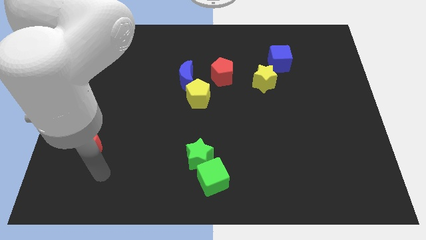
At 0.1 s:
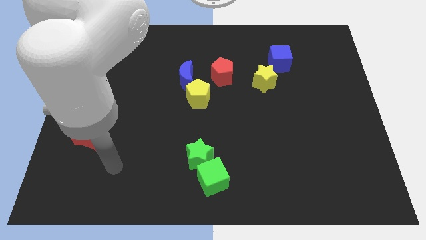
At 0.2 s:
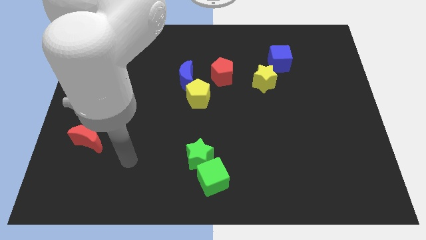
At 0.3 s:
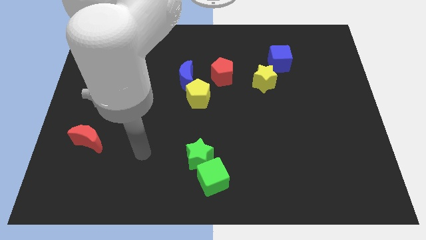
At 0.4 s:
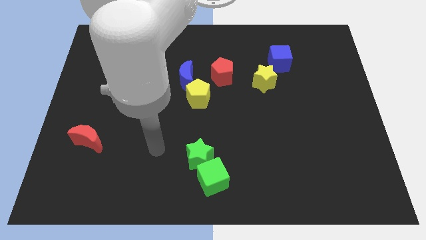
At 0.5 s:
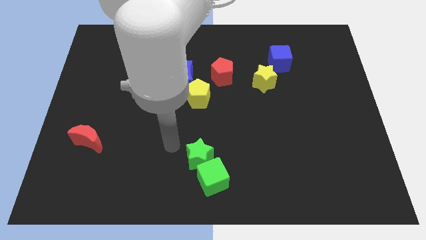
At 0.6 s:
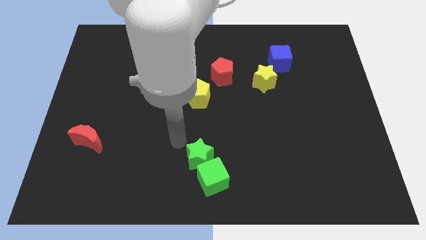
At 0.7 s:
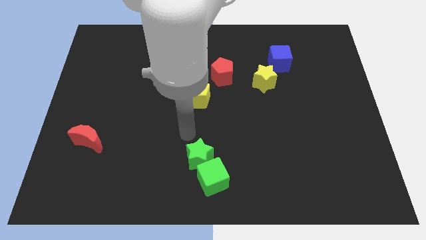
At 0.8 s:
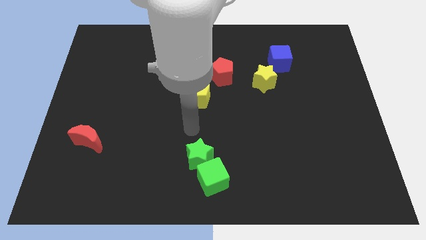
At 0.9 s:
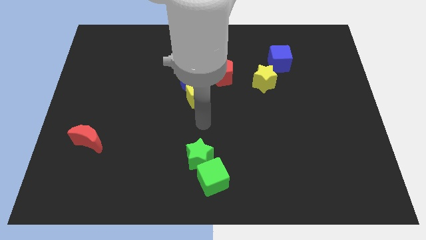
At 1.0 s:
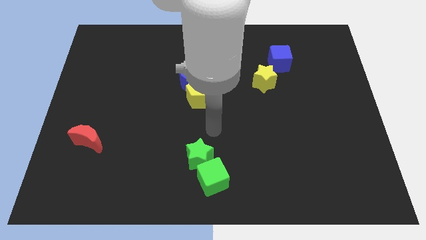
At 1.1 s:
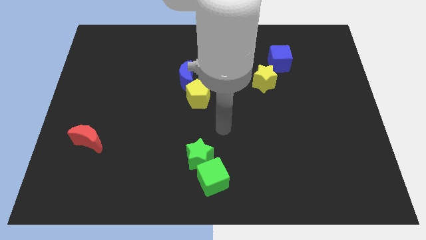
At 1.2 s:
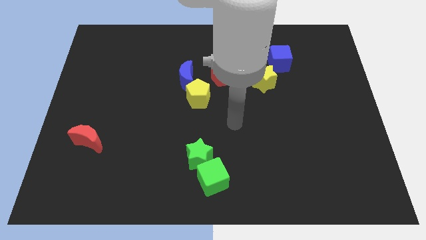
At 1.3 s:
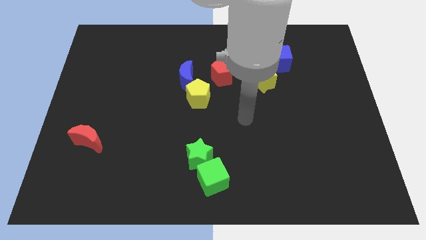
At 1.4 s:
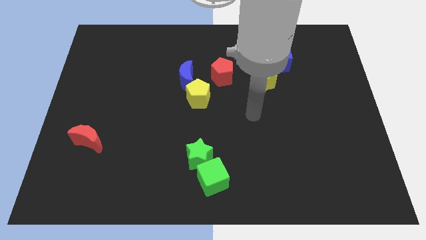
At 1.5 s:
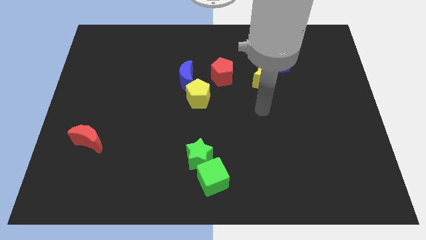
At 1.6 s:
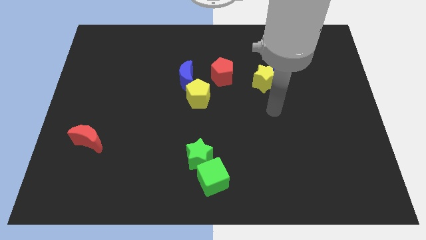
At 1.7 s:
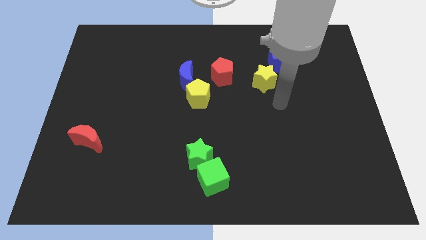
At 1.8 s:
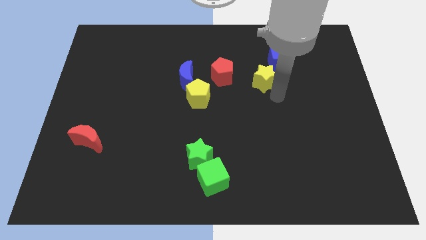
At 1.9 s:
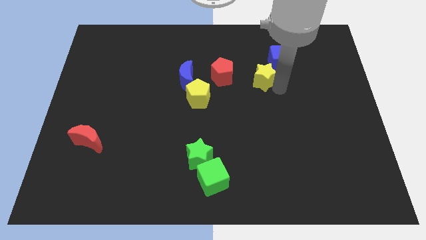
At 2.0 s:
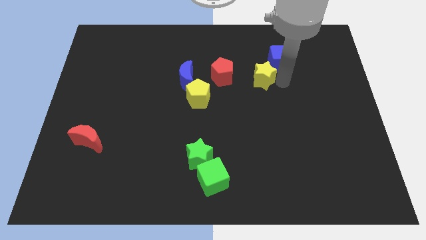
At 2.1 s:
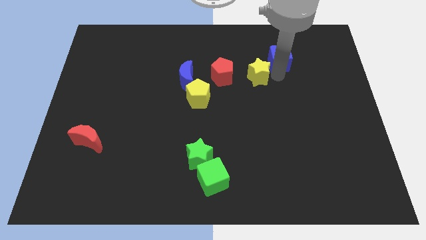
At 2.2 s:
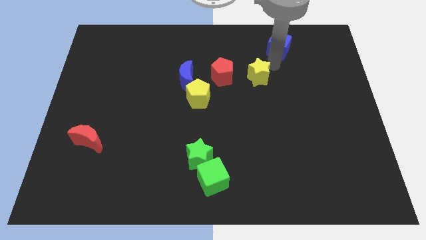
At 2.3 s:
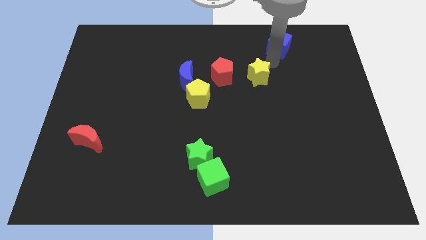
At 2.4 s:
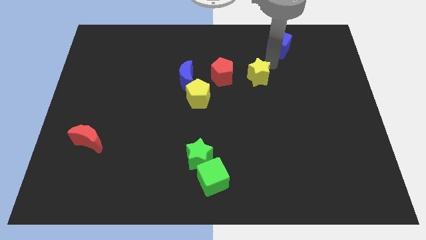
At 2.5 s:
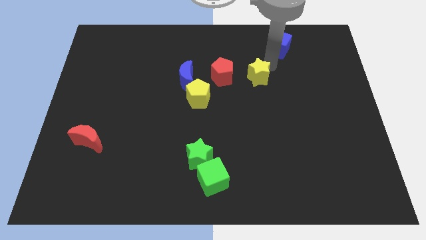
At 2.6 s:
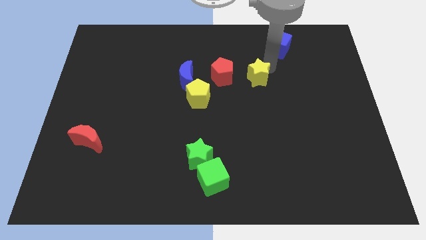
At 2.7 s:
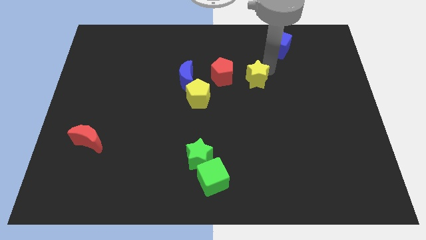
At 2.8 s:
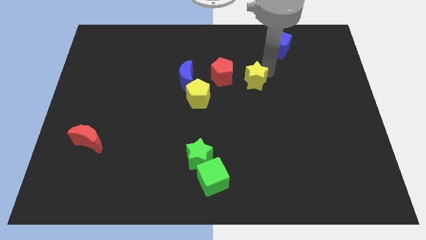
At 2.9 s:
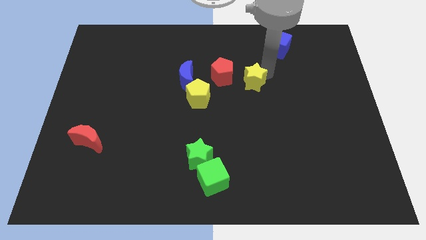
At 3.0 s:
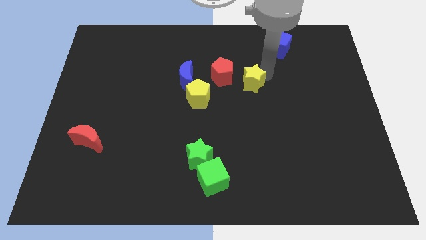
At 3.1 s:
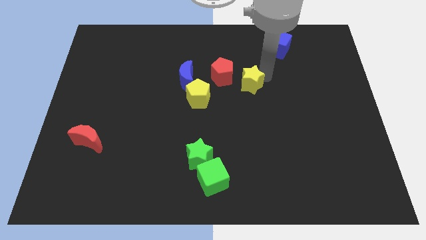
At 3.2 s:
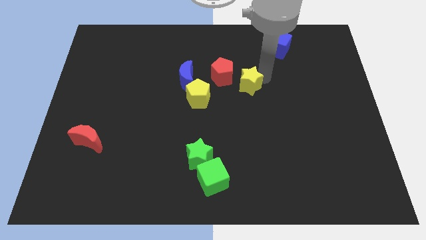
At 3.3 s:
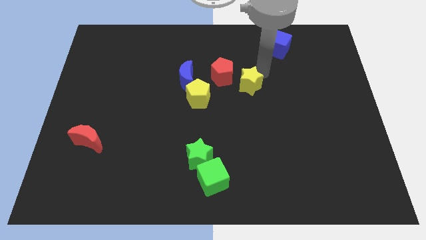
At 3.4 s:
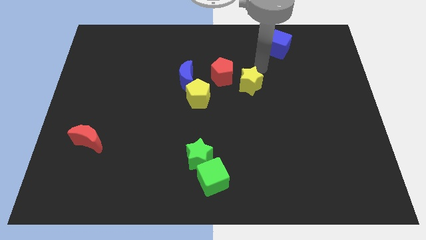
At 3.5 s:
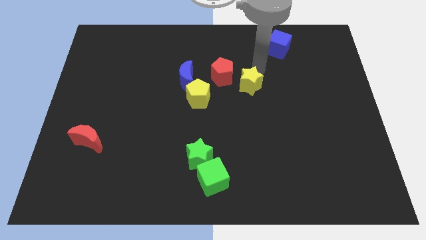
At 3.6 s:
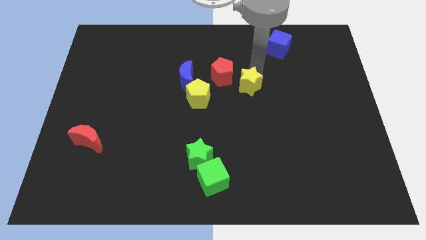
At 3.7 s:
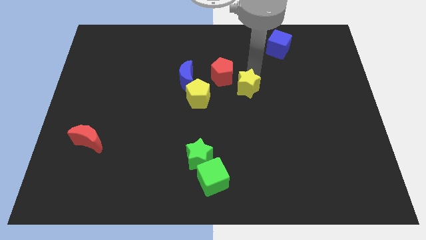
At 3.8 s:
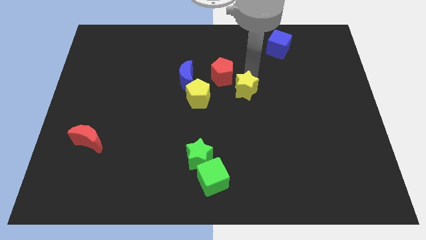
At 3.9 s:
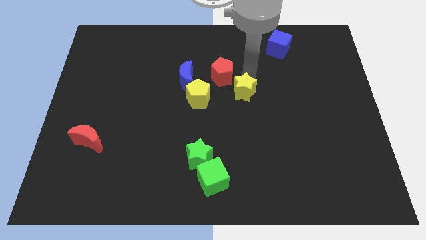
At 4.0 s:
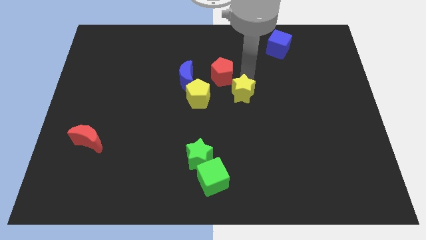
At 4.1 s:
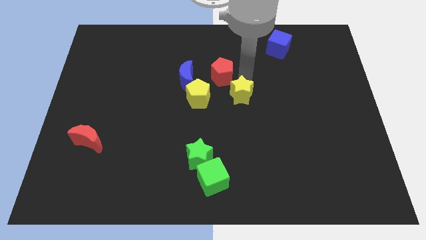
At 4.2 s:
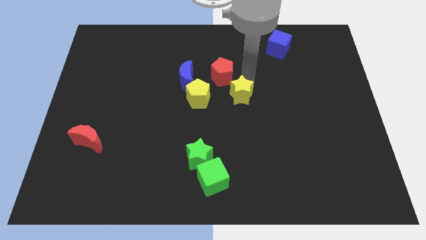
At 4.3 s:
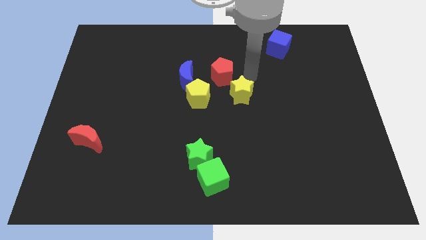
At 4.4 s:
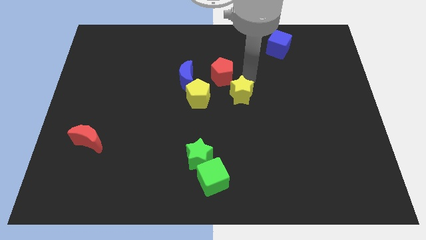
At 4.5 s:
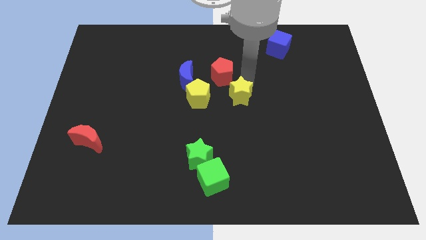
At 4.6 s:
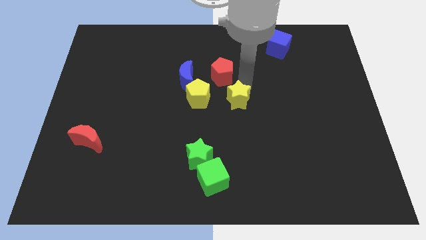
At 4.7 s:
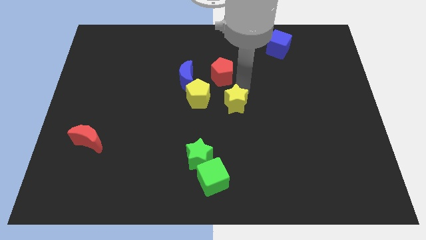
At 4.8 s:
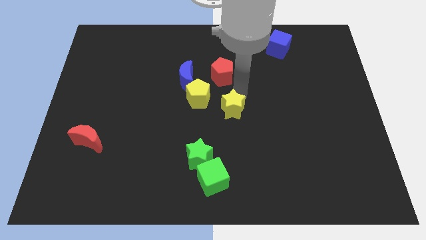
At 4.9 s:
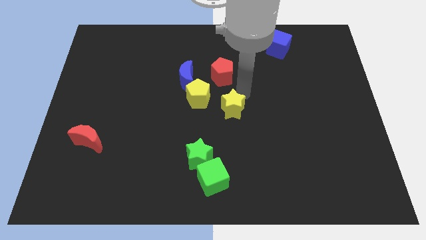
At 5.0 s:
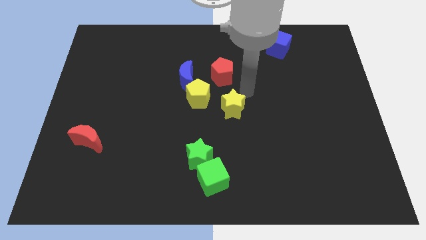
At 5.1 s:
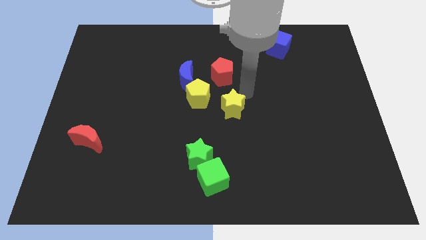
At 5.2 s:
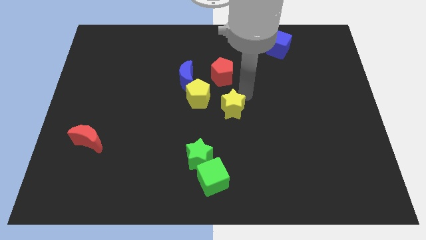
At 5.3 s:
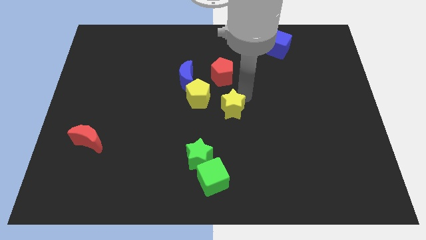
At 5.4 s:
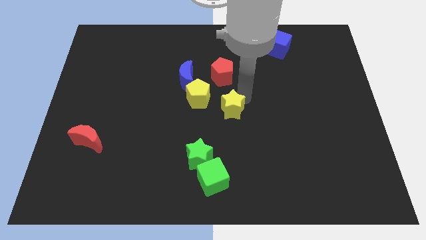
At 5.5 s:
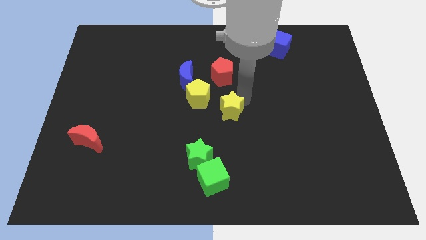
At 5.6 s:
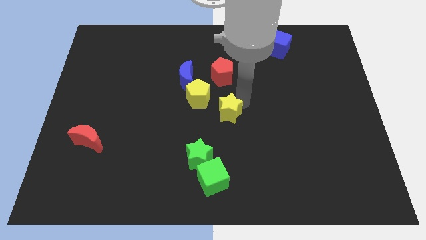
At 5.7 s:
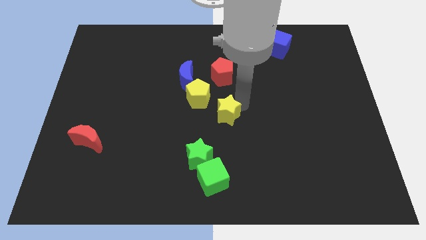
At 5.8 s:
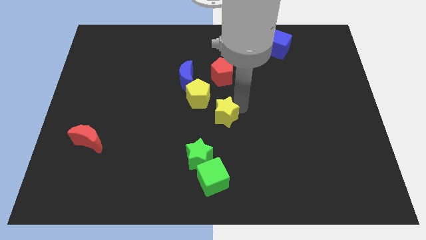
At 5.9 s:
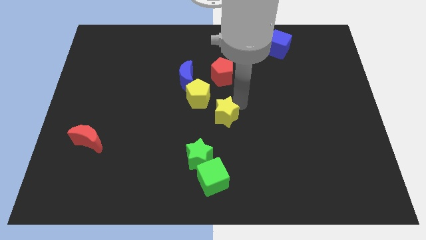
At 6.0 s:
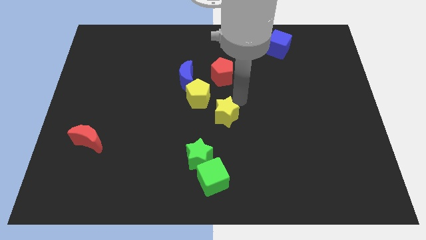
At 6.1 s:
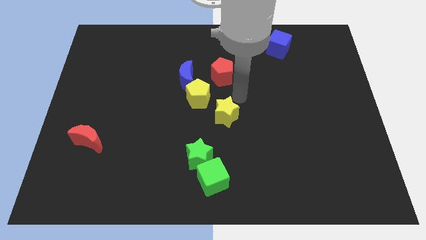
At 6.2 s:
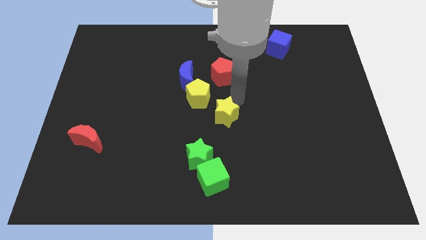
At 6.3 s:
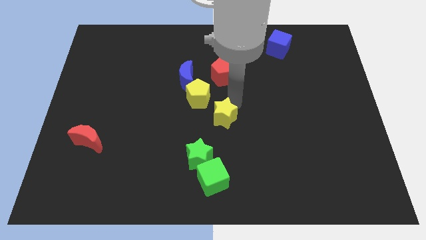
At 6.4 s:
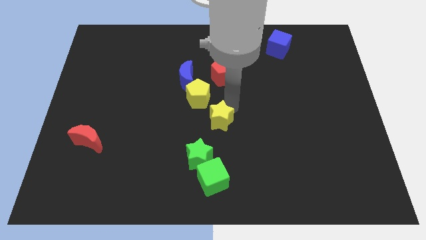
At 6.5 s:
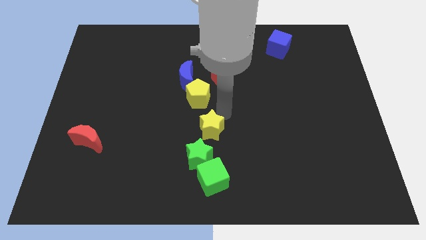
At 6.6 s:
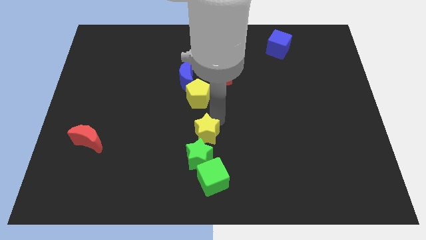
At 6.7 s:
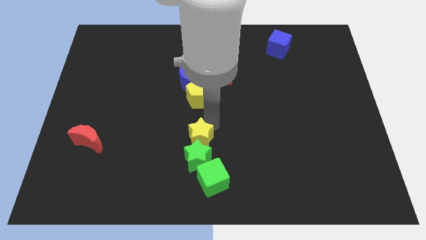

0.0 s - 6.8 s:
slide the yellow star close to the green star
